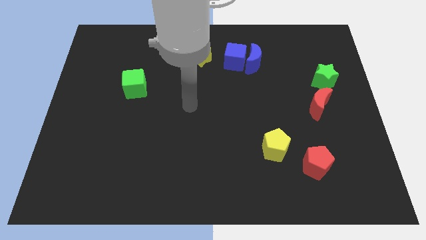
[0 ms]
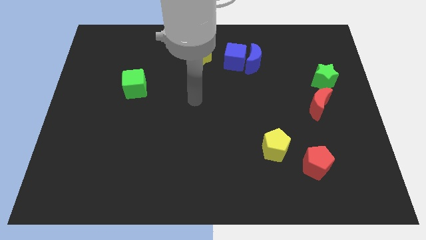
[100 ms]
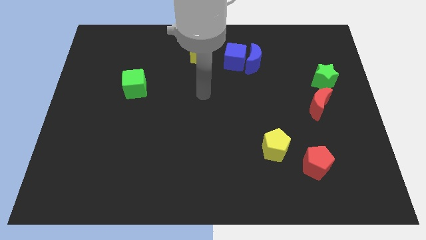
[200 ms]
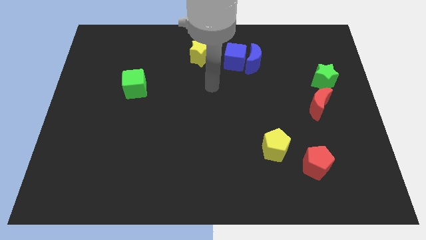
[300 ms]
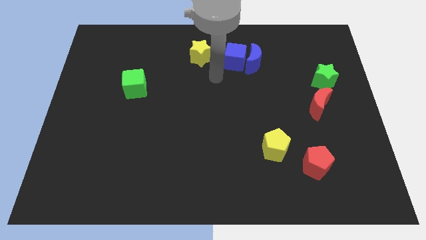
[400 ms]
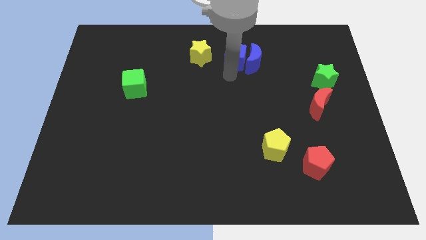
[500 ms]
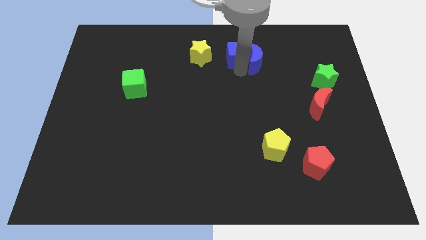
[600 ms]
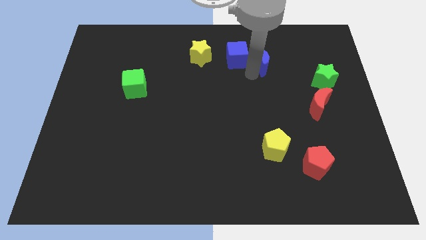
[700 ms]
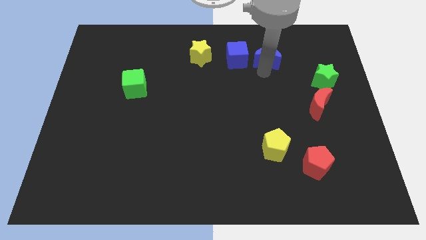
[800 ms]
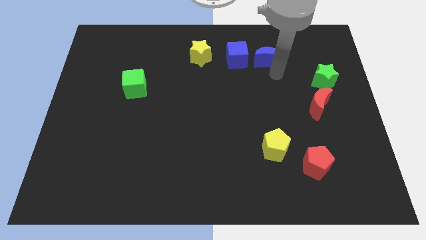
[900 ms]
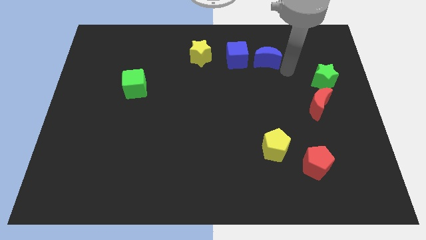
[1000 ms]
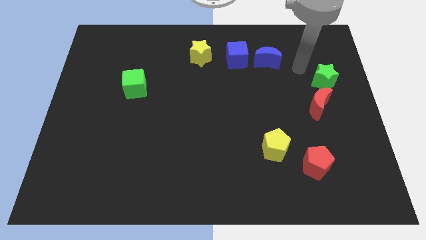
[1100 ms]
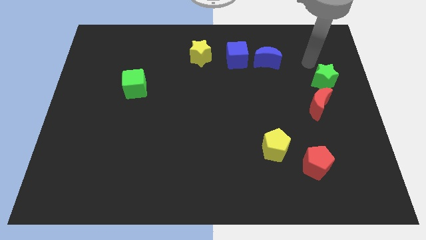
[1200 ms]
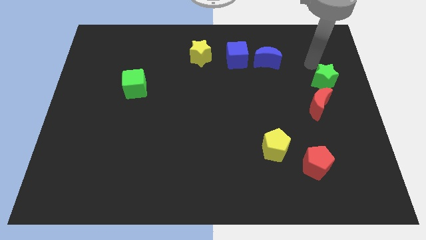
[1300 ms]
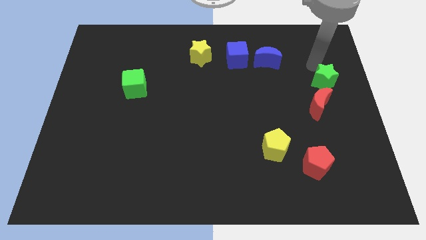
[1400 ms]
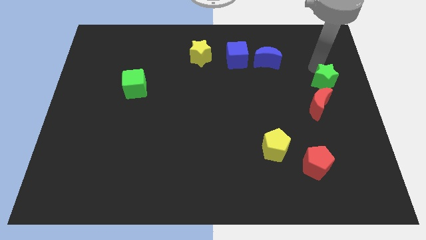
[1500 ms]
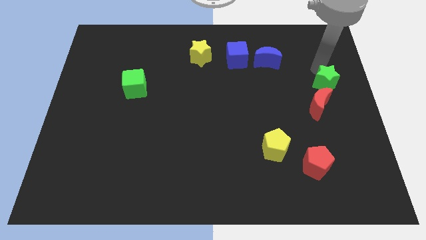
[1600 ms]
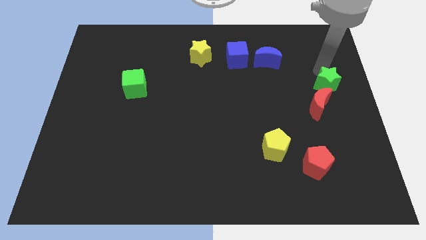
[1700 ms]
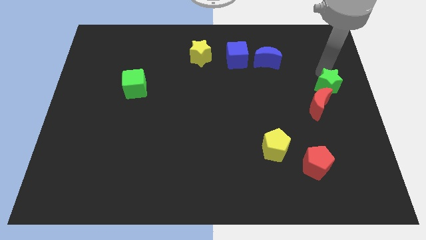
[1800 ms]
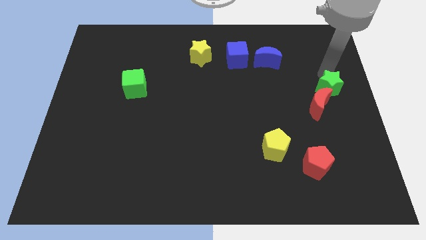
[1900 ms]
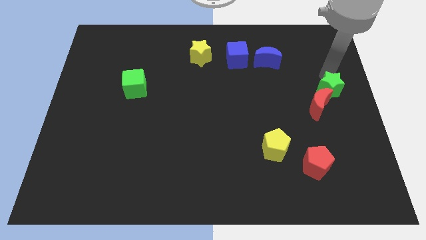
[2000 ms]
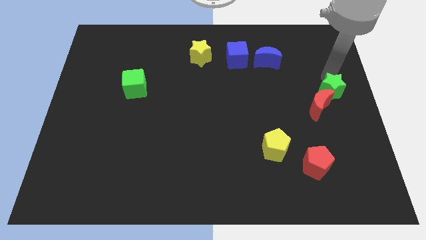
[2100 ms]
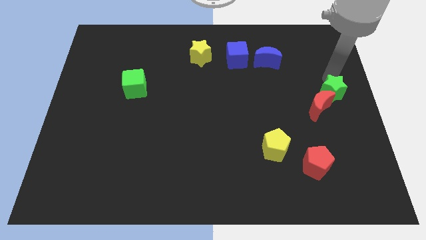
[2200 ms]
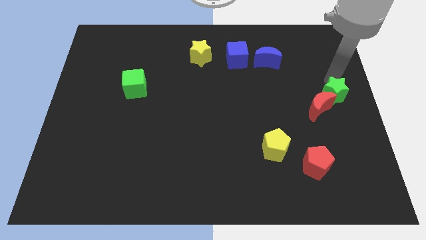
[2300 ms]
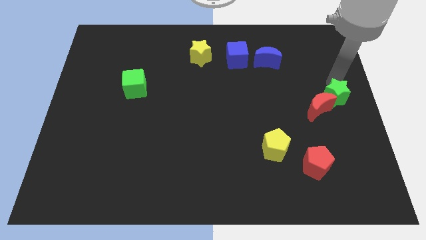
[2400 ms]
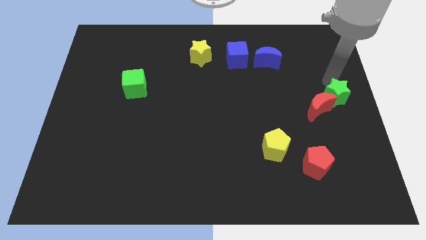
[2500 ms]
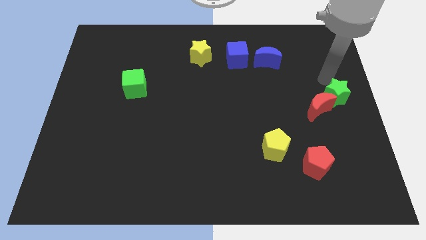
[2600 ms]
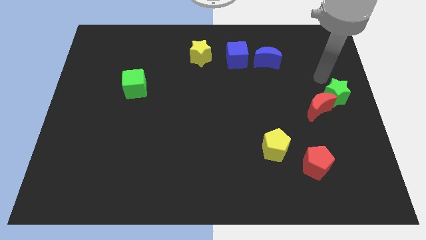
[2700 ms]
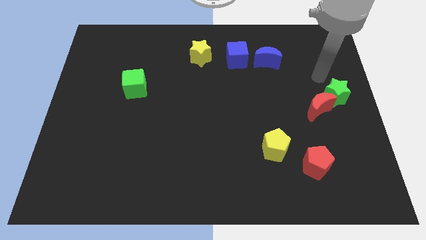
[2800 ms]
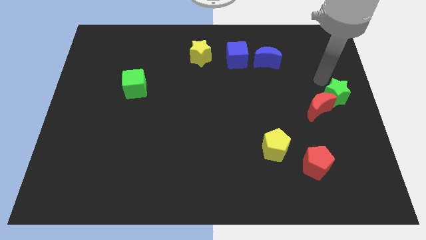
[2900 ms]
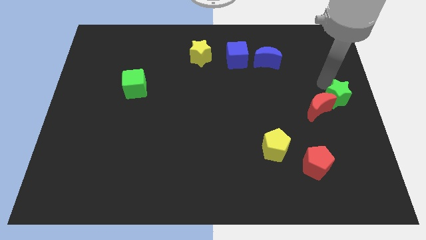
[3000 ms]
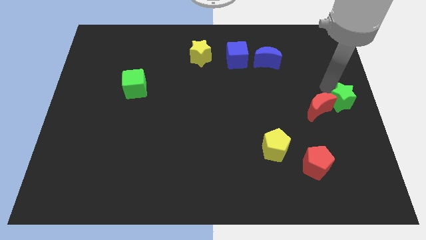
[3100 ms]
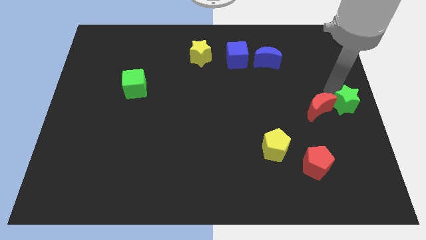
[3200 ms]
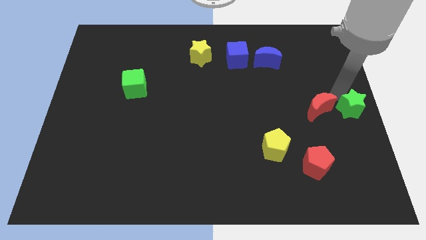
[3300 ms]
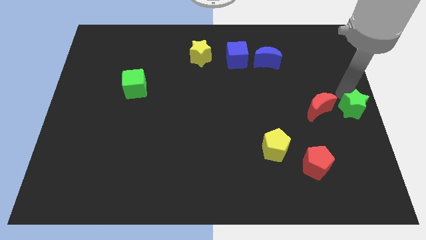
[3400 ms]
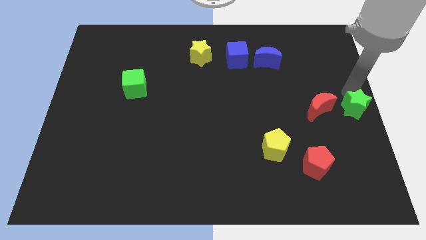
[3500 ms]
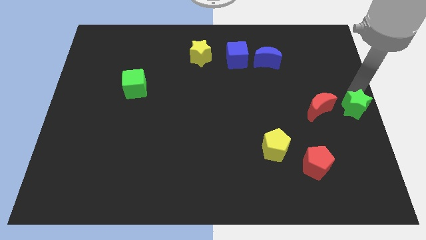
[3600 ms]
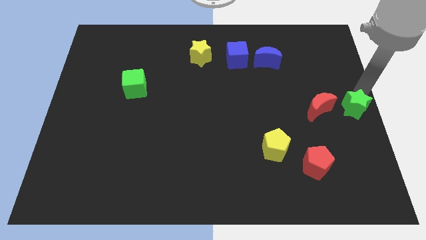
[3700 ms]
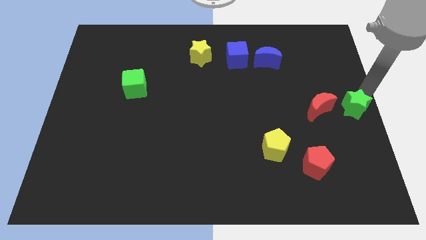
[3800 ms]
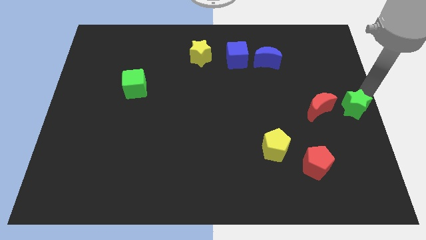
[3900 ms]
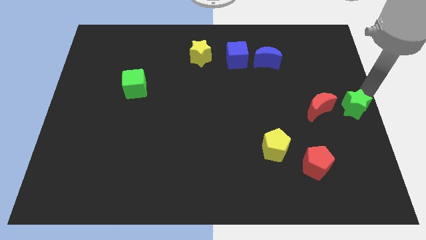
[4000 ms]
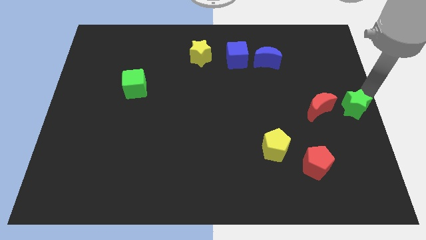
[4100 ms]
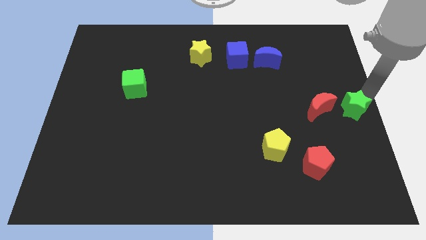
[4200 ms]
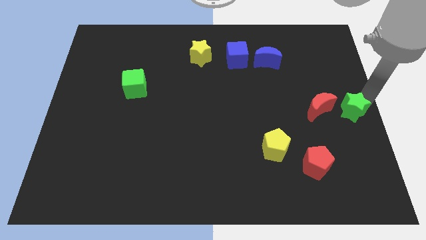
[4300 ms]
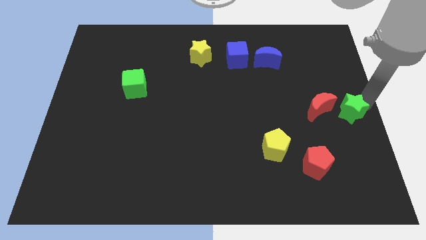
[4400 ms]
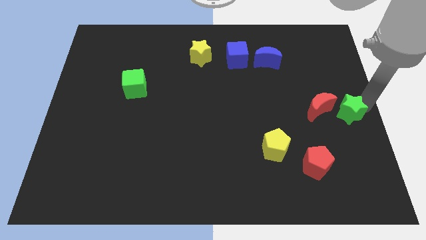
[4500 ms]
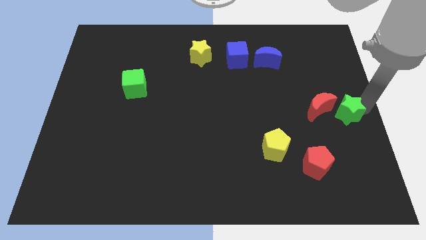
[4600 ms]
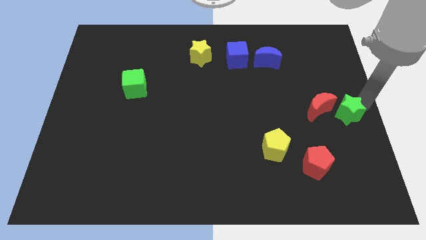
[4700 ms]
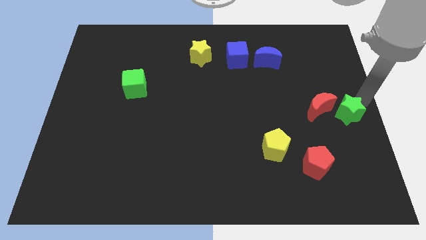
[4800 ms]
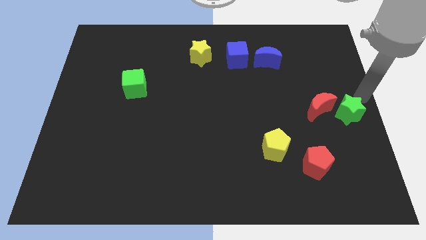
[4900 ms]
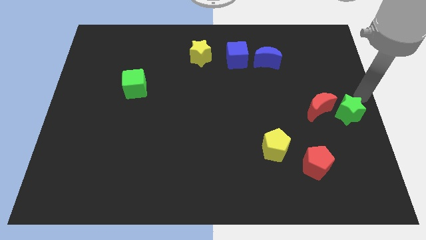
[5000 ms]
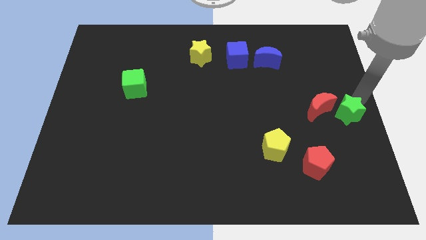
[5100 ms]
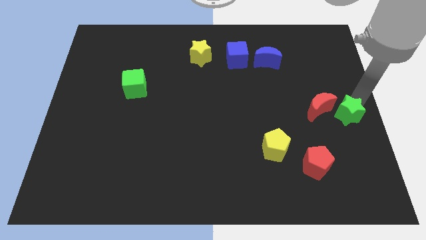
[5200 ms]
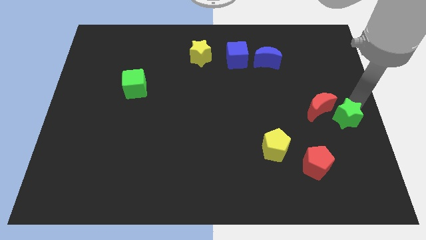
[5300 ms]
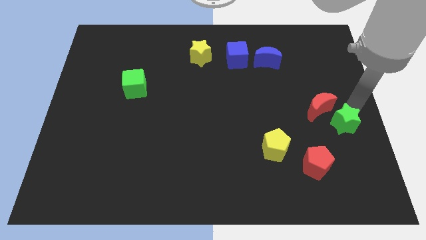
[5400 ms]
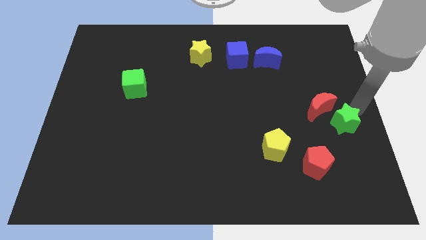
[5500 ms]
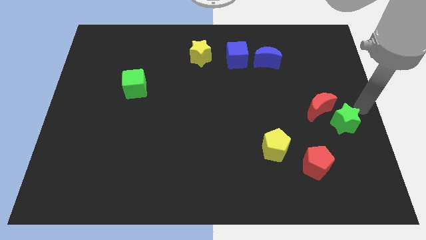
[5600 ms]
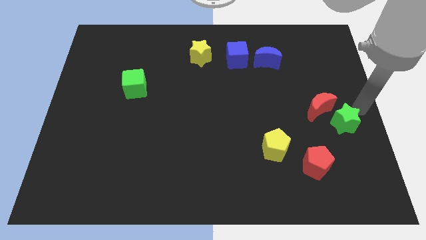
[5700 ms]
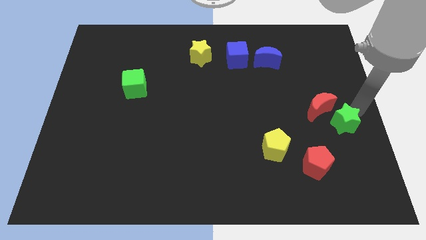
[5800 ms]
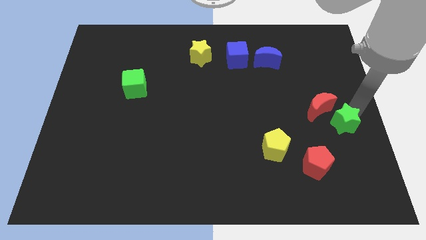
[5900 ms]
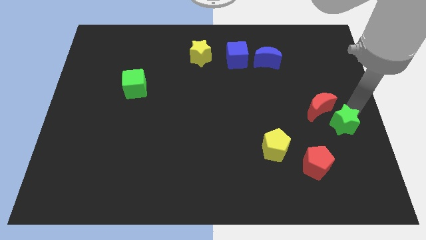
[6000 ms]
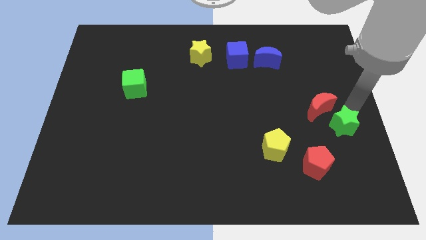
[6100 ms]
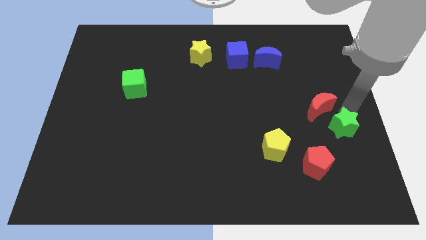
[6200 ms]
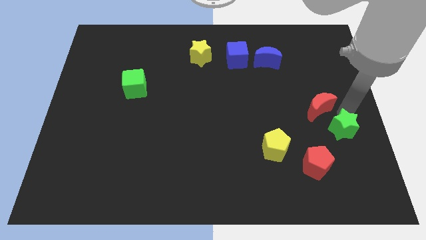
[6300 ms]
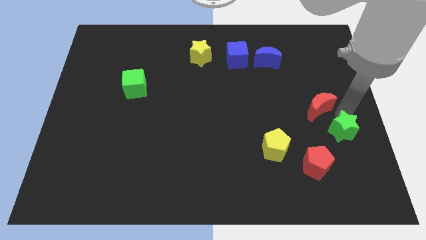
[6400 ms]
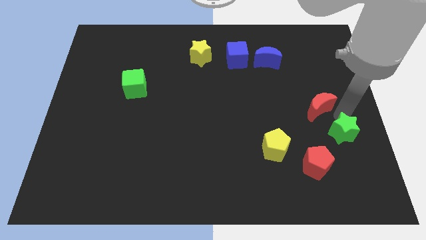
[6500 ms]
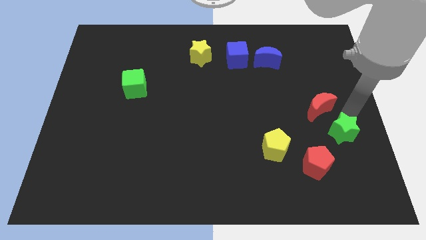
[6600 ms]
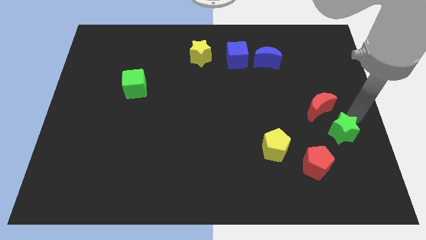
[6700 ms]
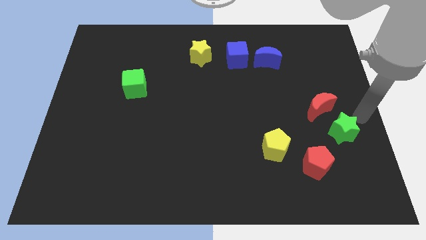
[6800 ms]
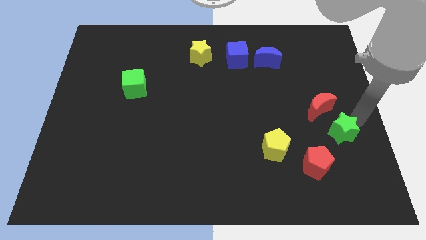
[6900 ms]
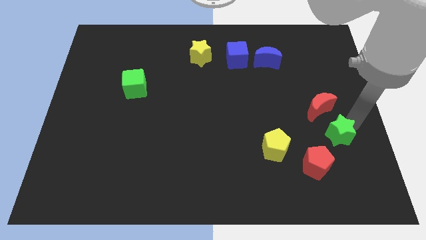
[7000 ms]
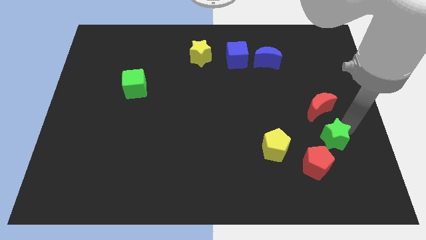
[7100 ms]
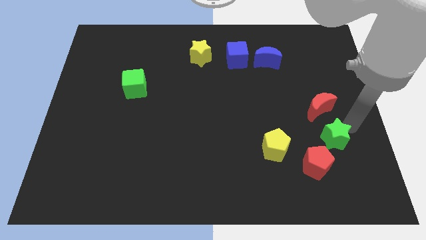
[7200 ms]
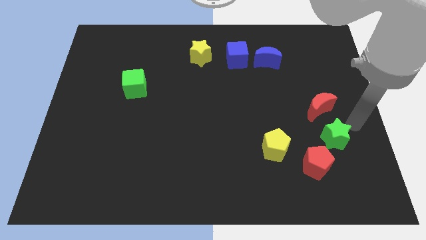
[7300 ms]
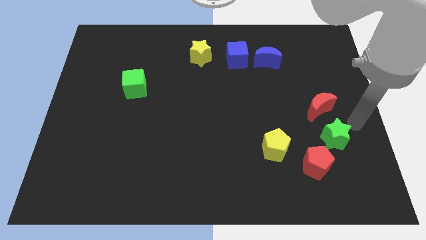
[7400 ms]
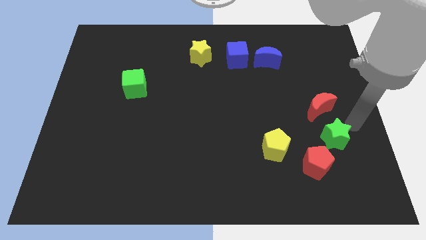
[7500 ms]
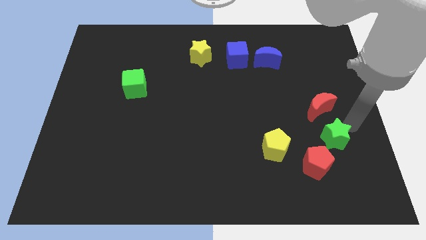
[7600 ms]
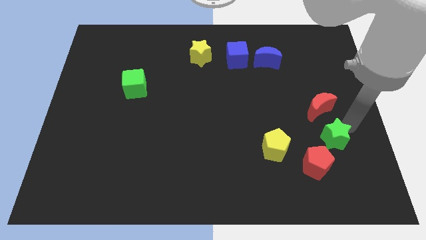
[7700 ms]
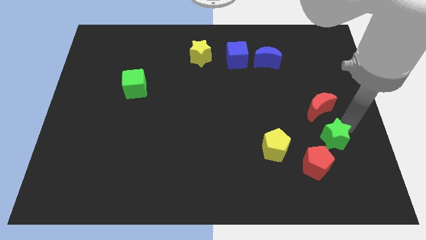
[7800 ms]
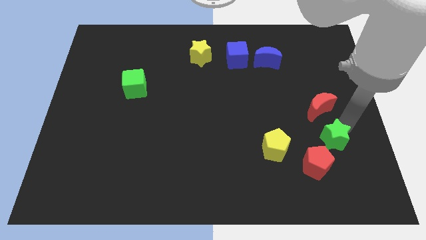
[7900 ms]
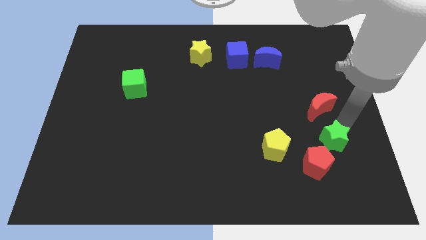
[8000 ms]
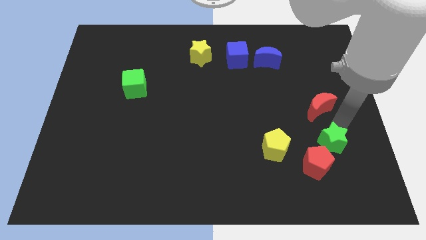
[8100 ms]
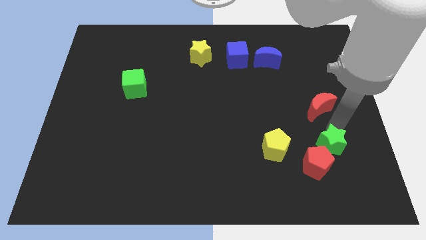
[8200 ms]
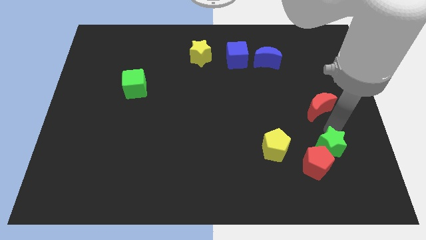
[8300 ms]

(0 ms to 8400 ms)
slide the green star close to the red pentagon
